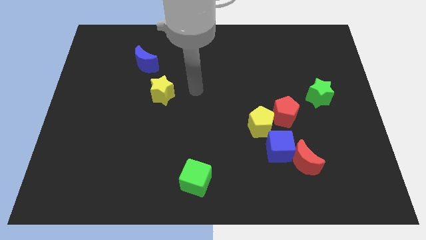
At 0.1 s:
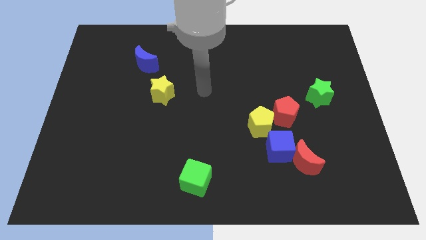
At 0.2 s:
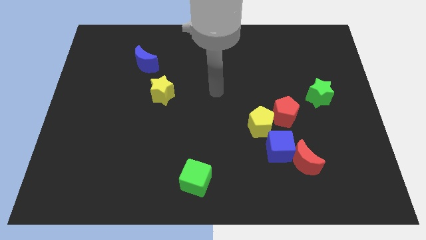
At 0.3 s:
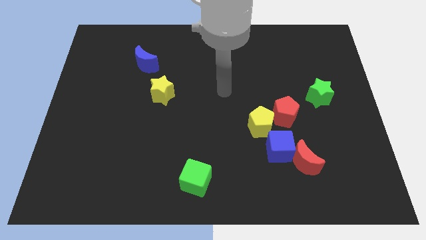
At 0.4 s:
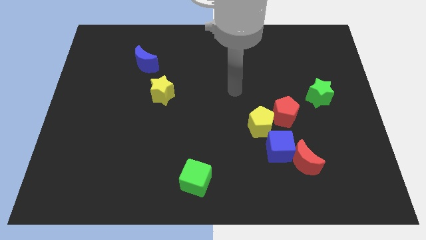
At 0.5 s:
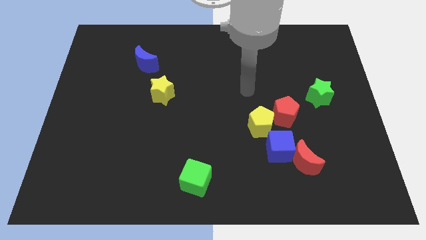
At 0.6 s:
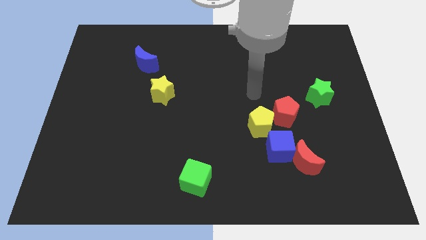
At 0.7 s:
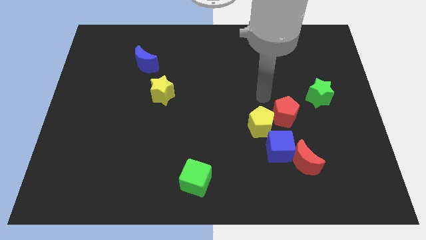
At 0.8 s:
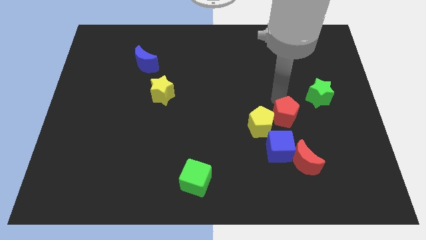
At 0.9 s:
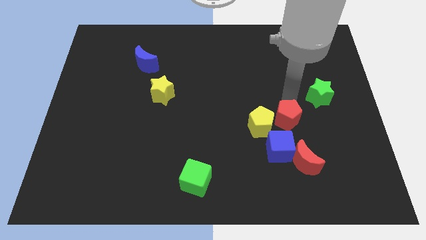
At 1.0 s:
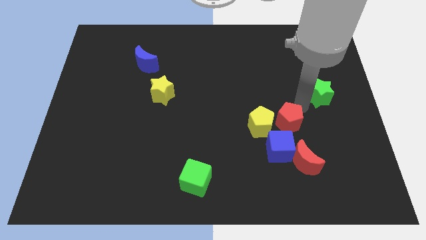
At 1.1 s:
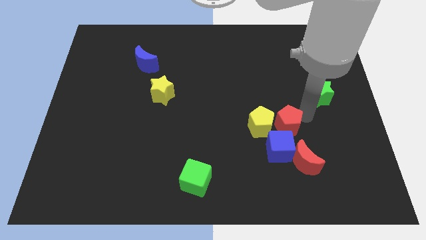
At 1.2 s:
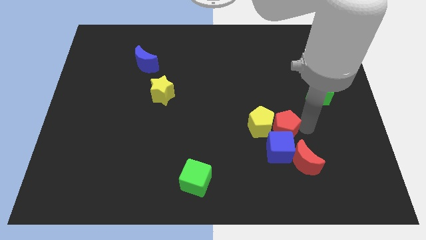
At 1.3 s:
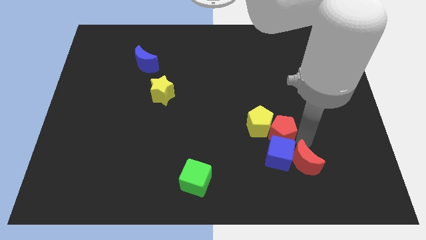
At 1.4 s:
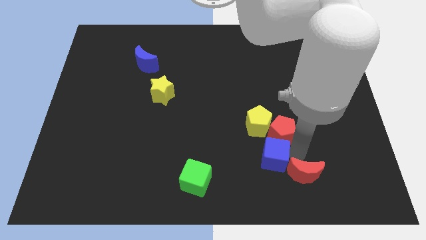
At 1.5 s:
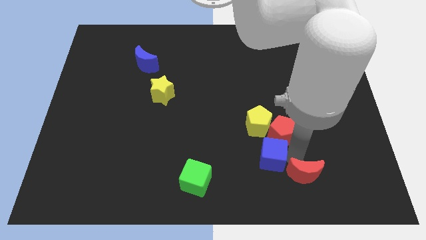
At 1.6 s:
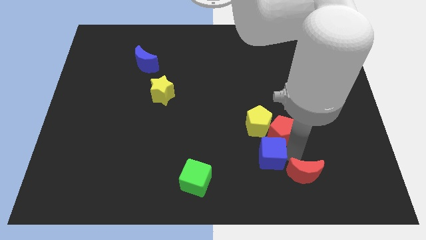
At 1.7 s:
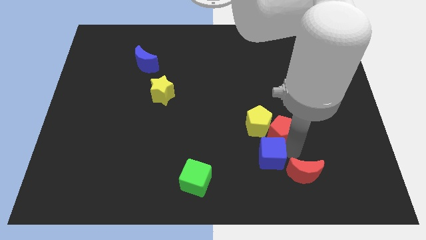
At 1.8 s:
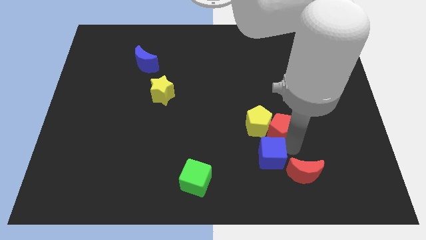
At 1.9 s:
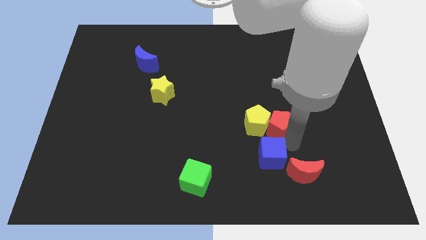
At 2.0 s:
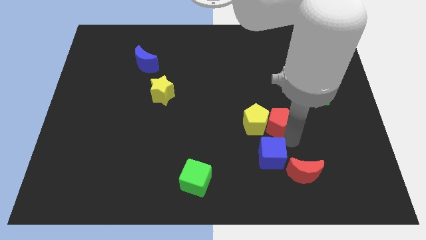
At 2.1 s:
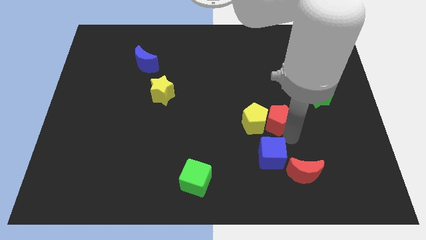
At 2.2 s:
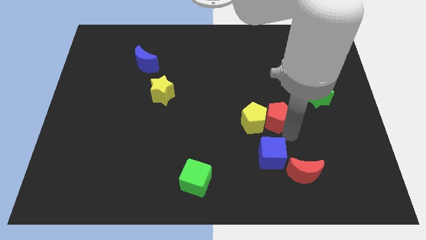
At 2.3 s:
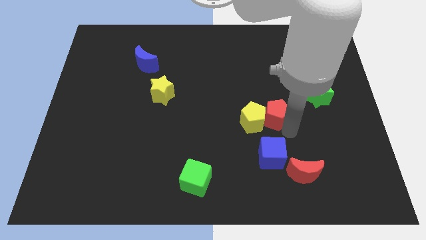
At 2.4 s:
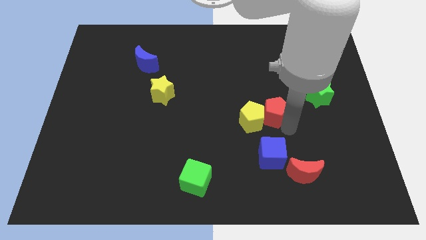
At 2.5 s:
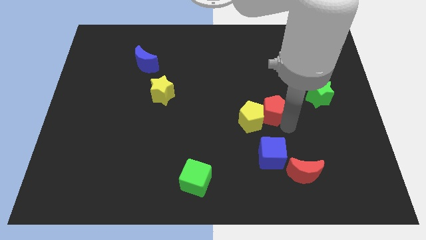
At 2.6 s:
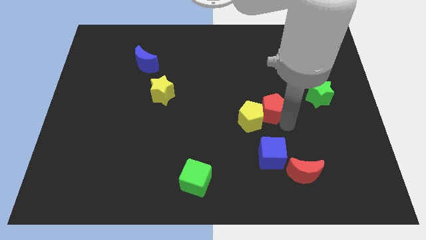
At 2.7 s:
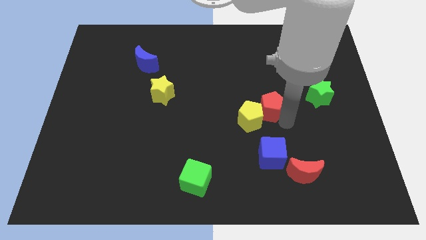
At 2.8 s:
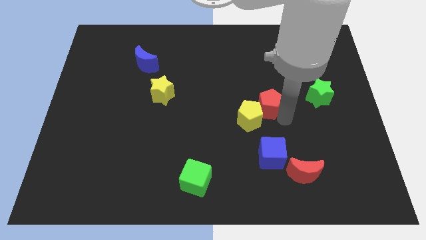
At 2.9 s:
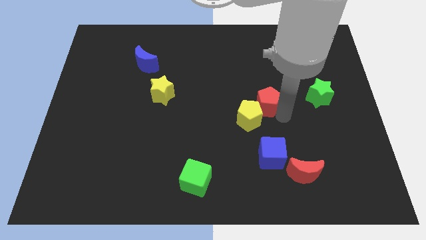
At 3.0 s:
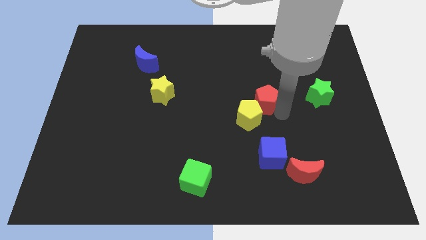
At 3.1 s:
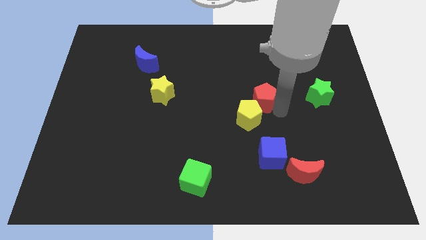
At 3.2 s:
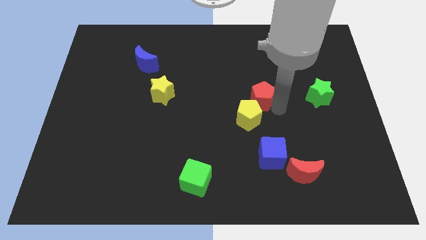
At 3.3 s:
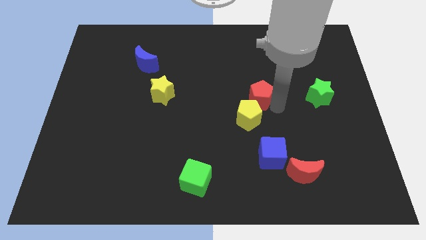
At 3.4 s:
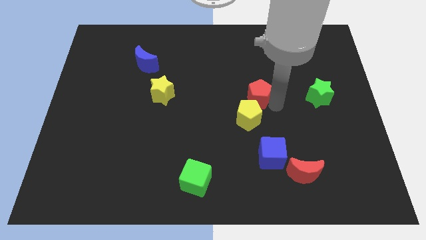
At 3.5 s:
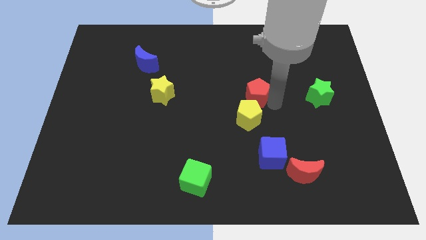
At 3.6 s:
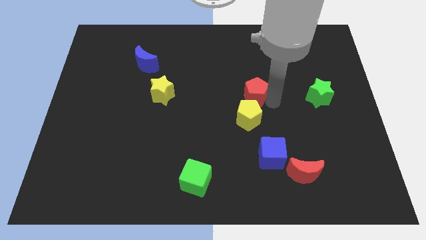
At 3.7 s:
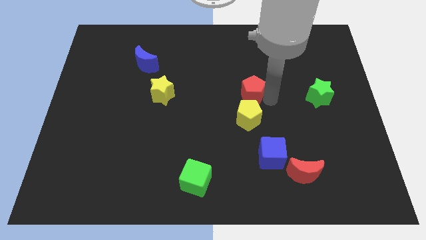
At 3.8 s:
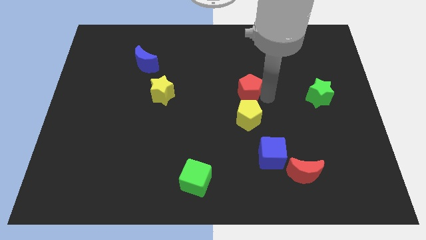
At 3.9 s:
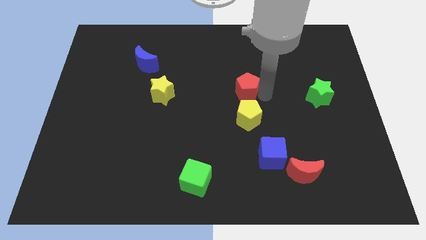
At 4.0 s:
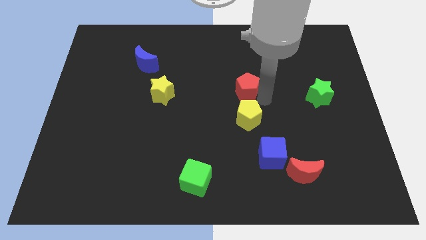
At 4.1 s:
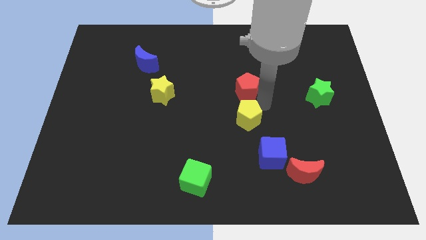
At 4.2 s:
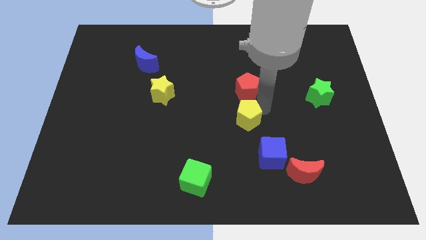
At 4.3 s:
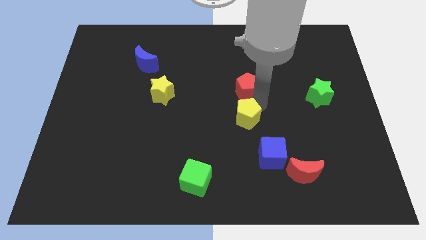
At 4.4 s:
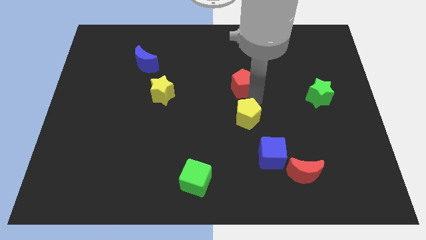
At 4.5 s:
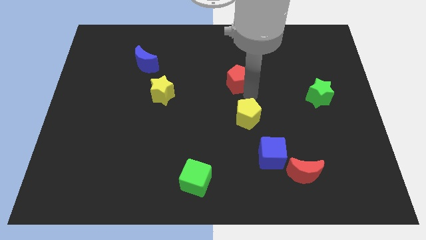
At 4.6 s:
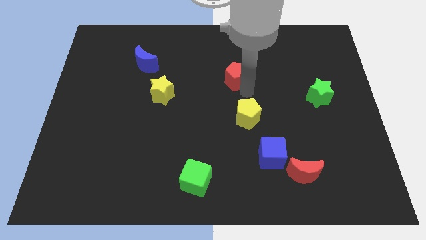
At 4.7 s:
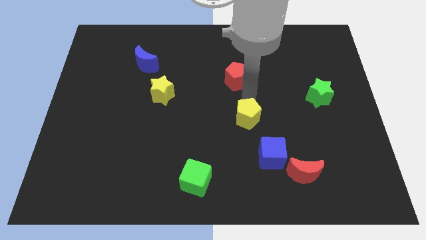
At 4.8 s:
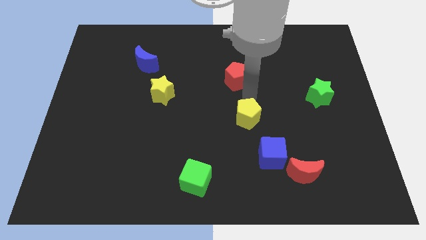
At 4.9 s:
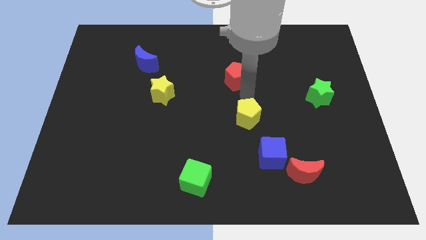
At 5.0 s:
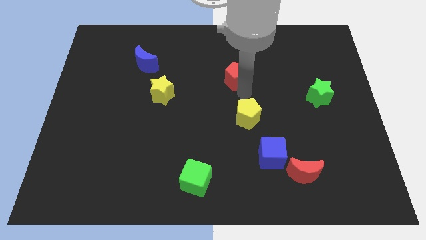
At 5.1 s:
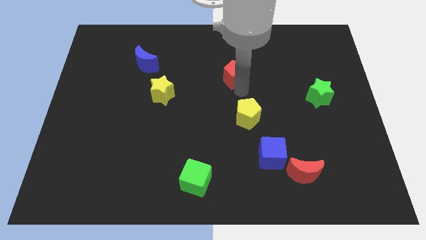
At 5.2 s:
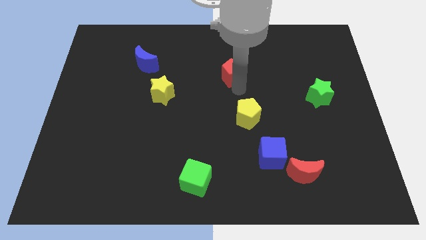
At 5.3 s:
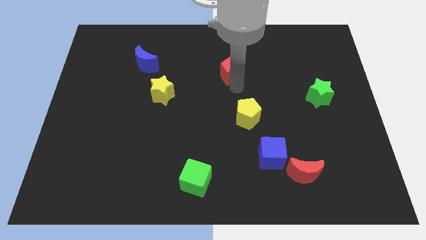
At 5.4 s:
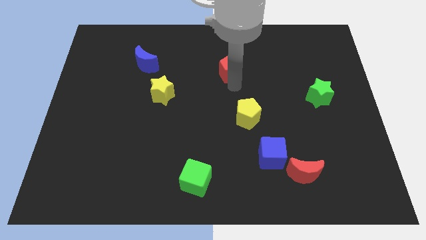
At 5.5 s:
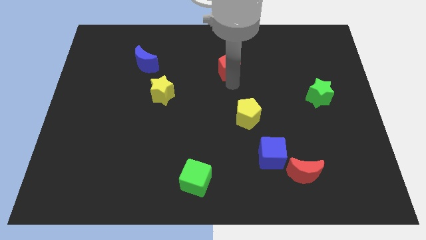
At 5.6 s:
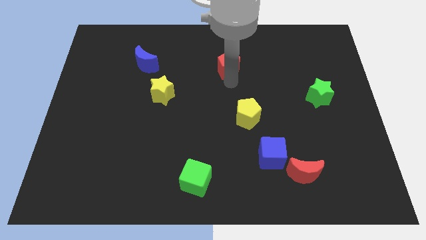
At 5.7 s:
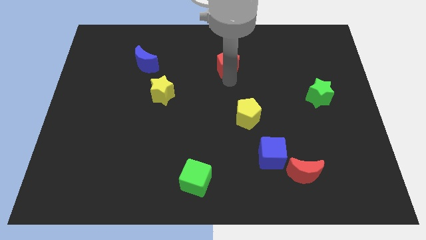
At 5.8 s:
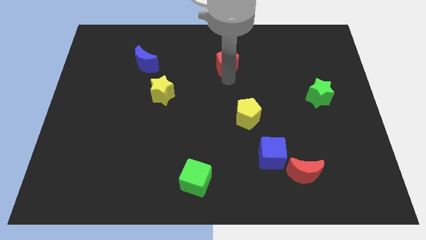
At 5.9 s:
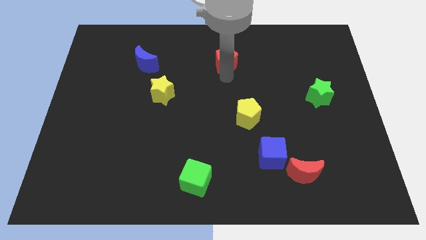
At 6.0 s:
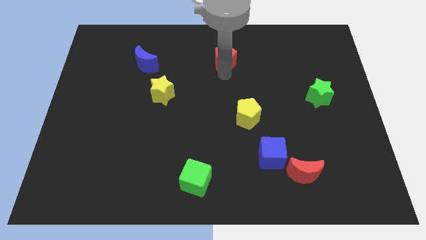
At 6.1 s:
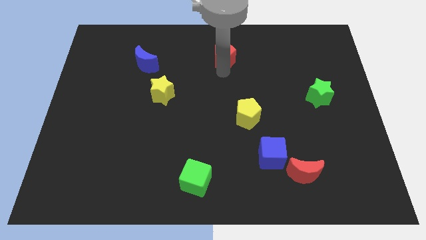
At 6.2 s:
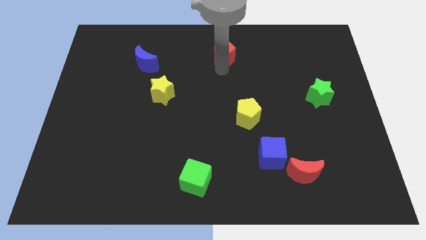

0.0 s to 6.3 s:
slide the red pentagon to the top
